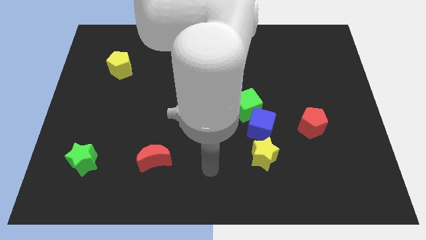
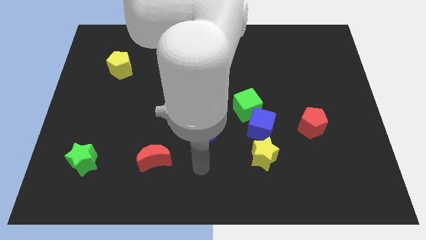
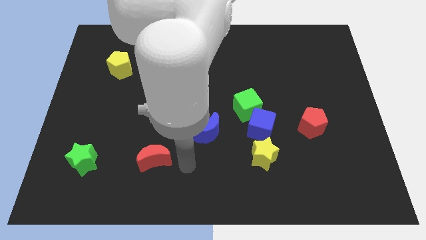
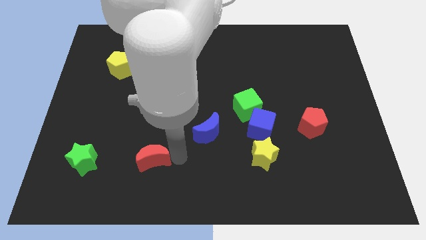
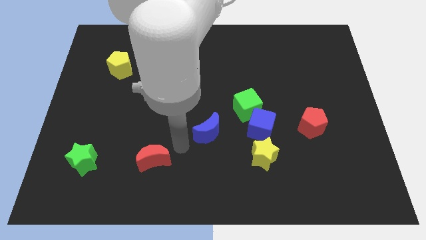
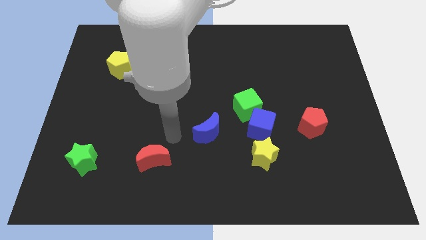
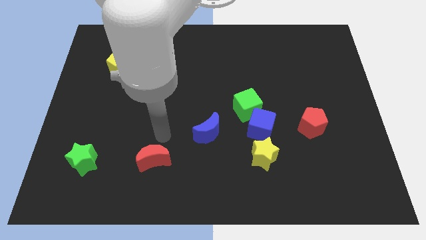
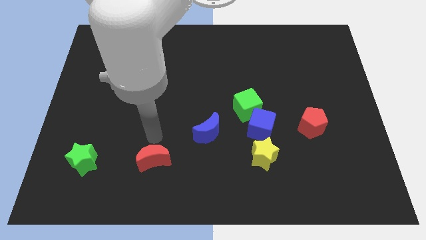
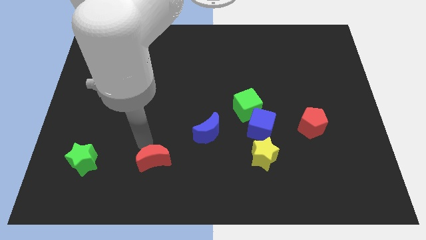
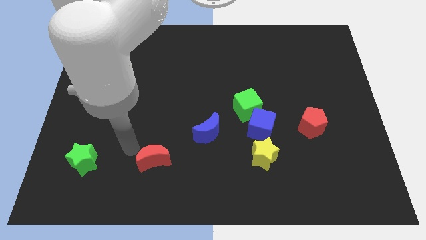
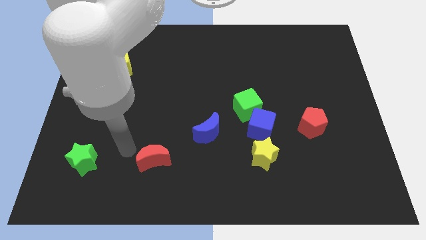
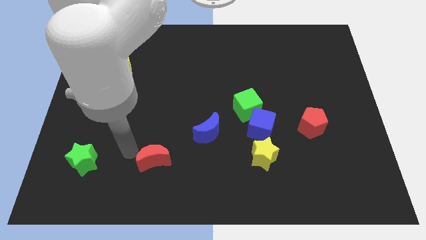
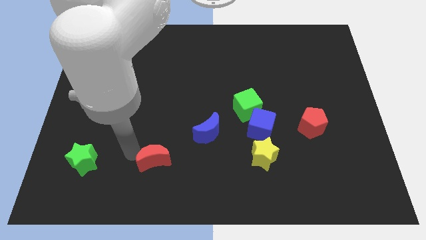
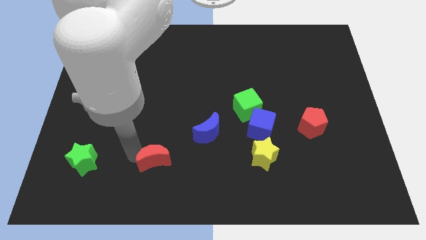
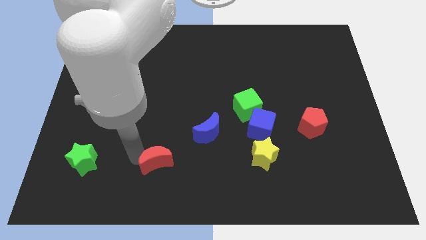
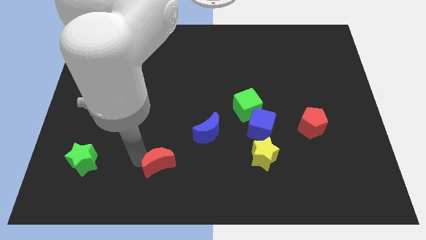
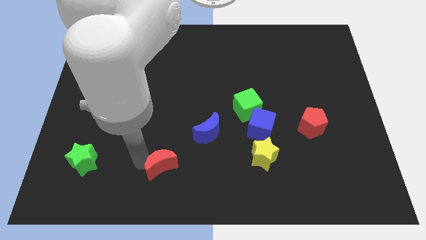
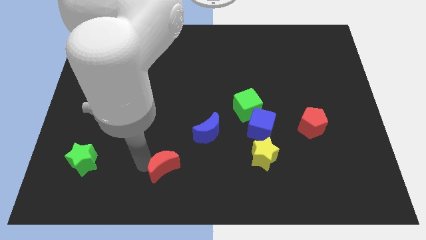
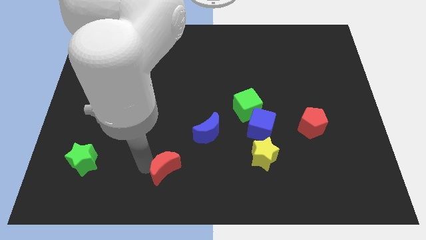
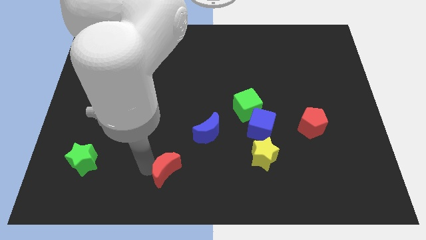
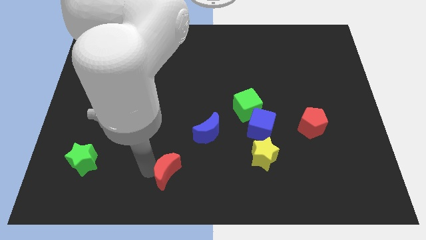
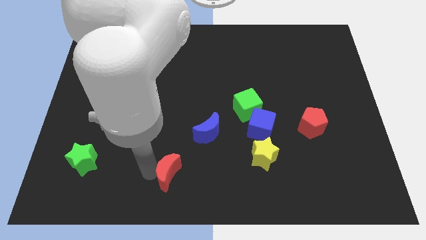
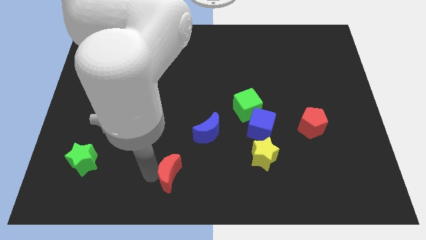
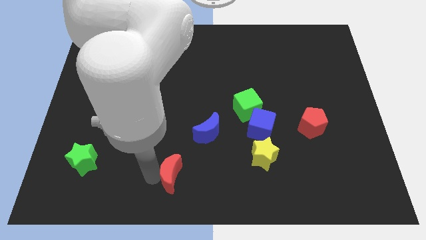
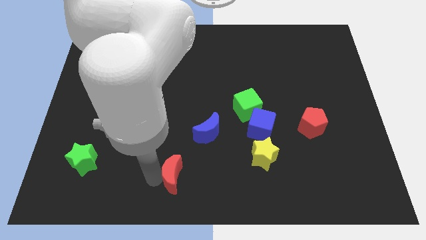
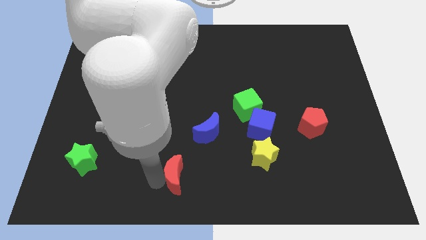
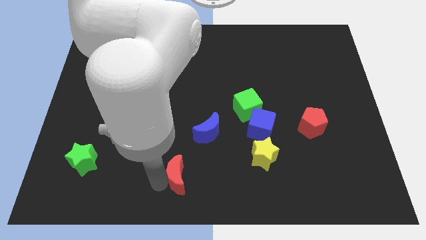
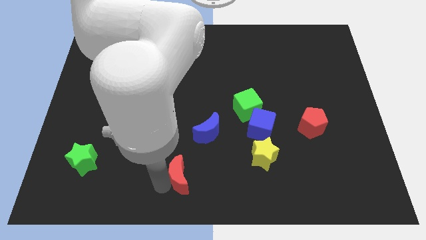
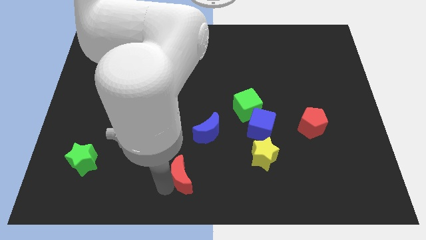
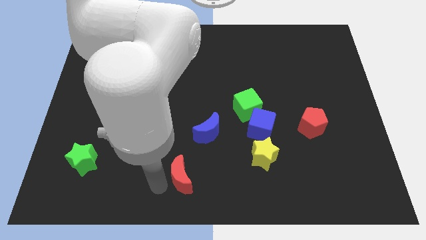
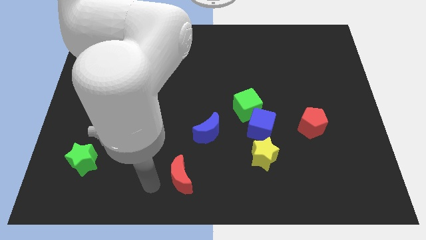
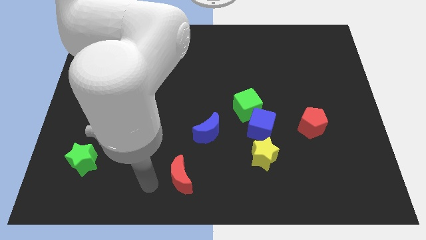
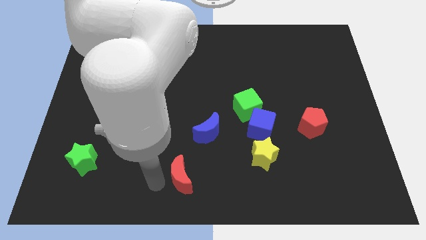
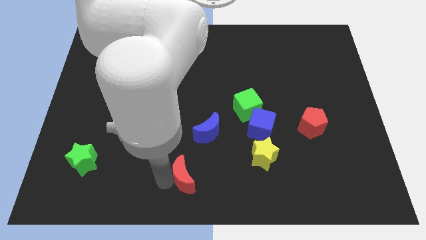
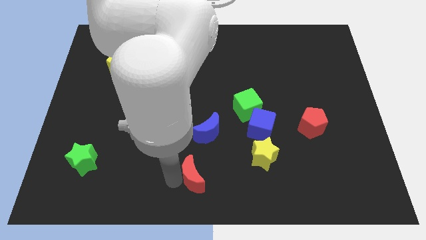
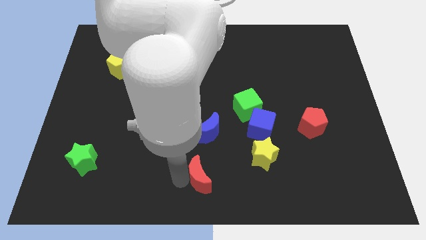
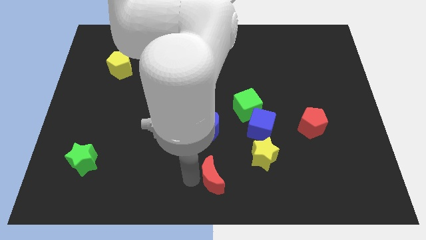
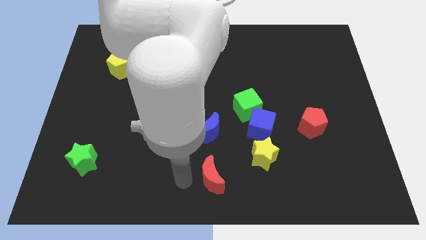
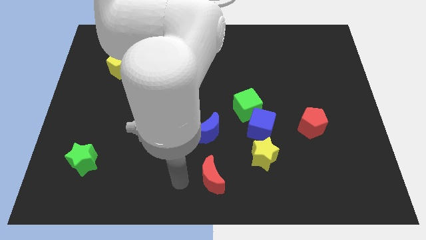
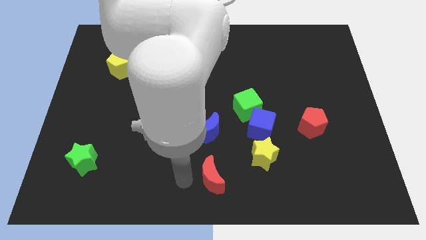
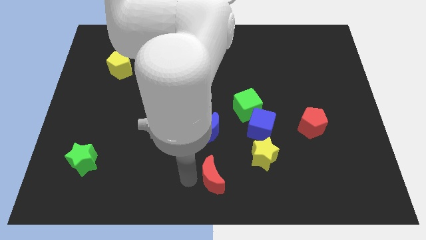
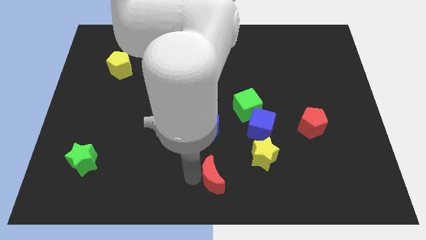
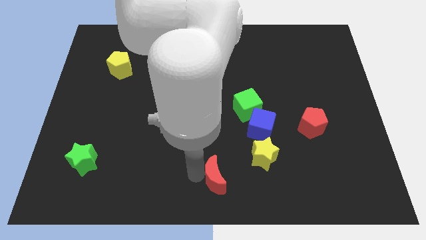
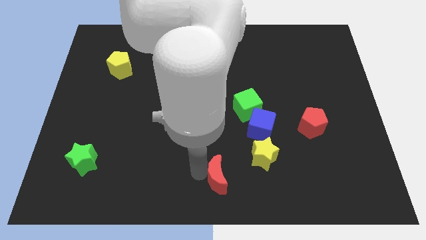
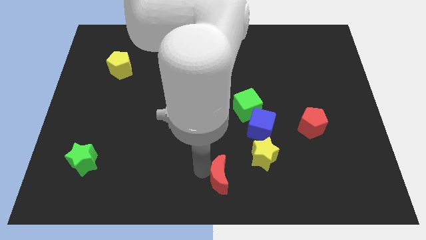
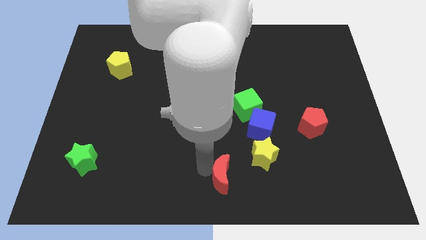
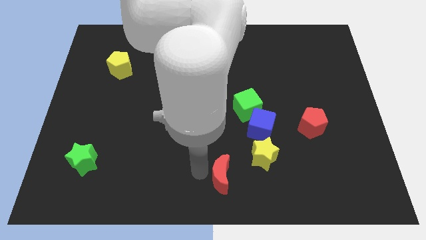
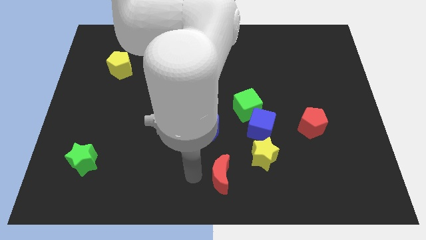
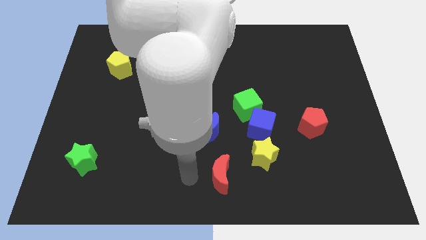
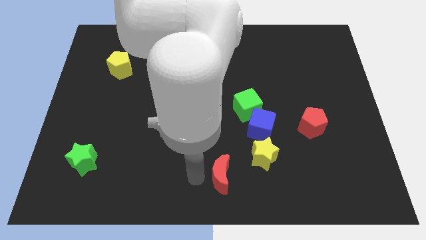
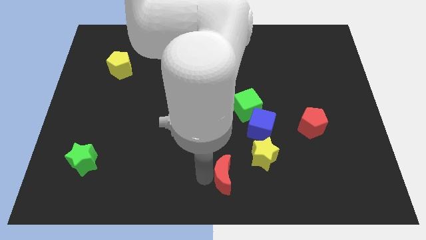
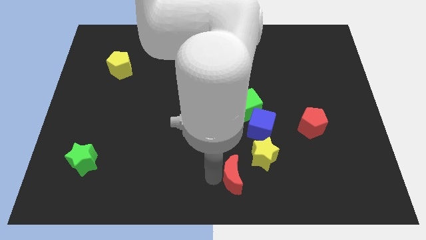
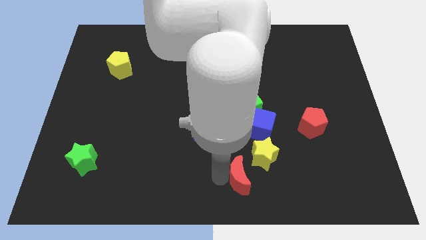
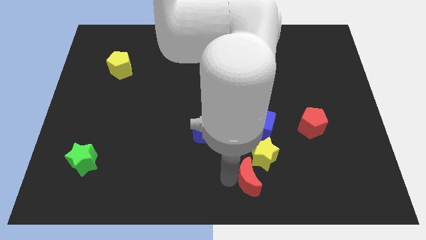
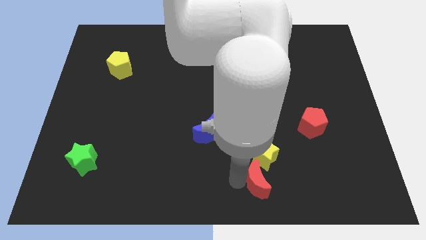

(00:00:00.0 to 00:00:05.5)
slide the red moon right

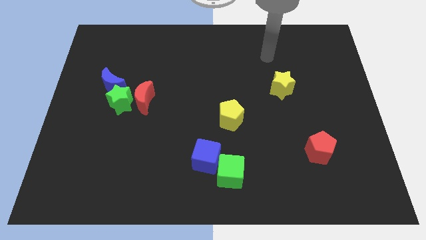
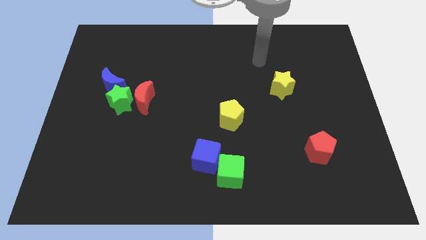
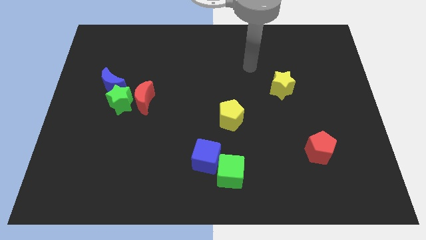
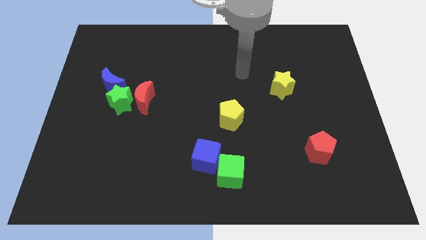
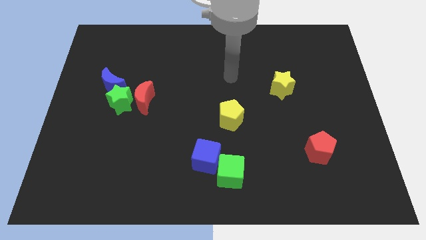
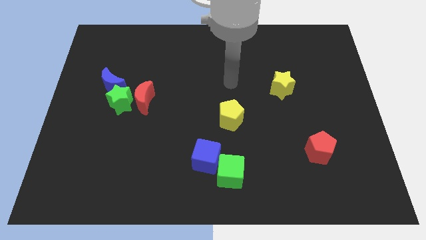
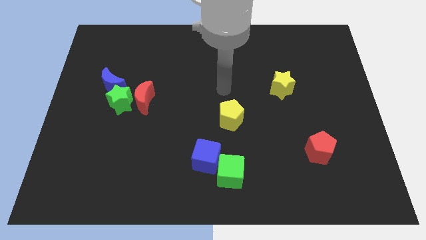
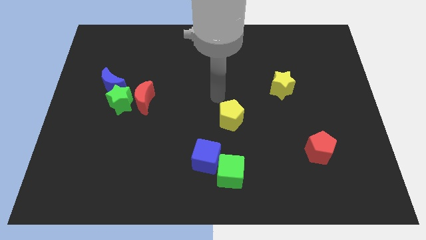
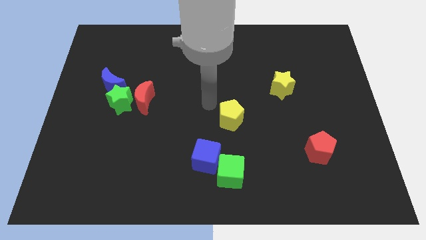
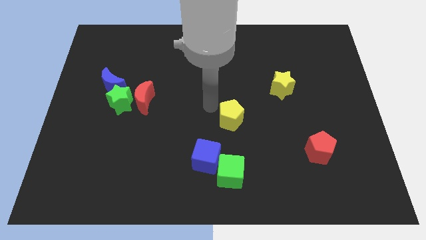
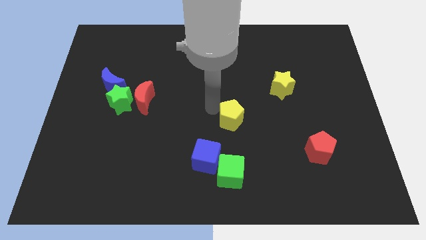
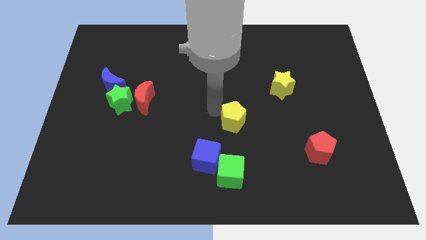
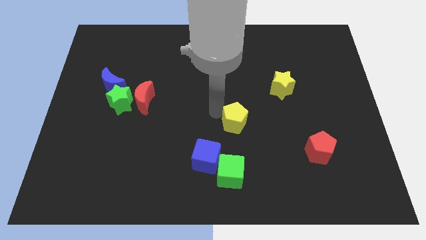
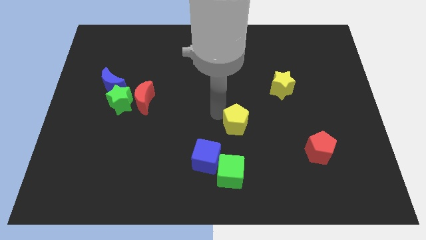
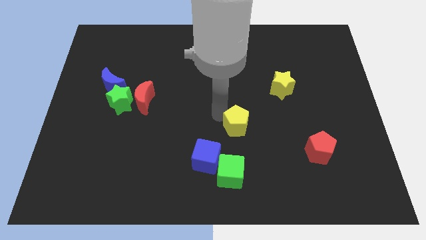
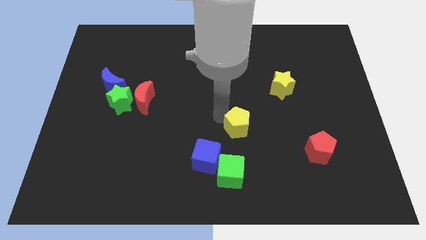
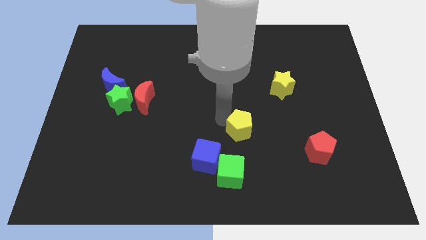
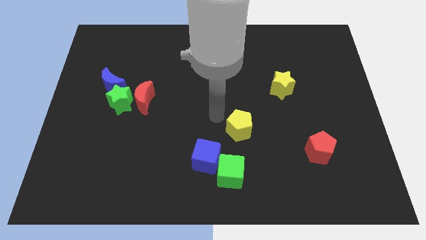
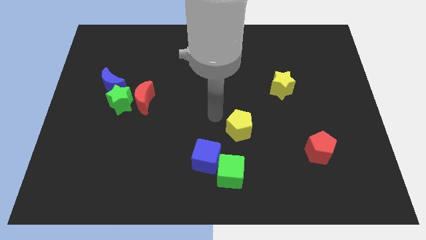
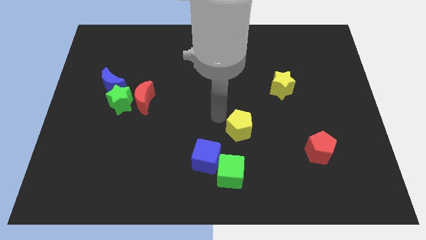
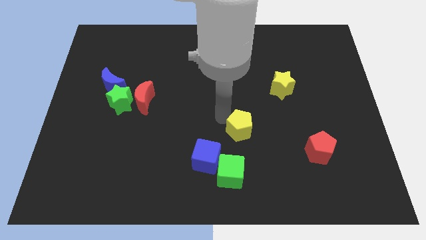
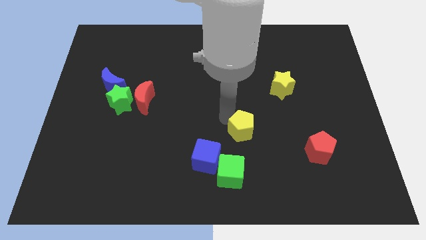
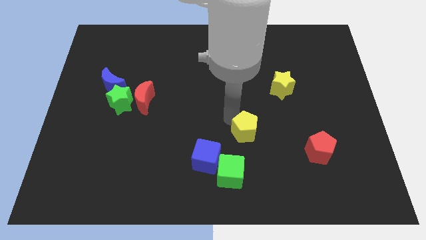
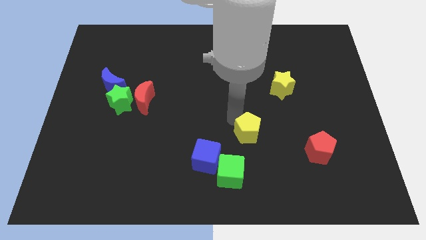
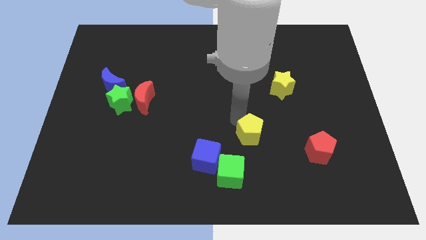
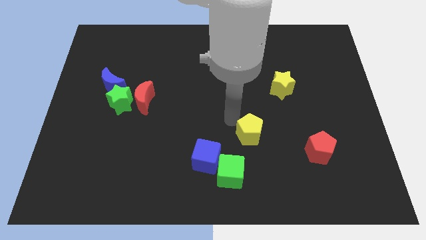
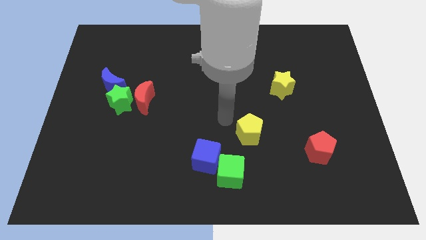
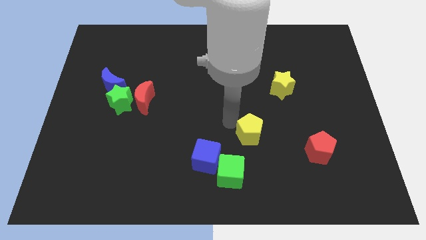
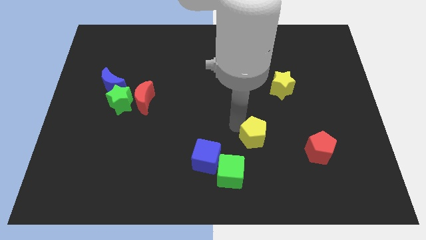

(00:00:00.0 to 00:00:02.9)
push the yellow pentagon down and then right slightly
